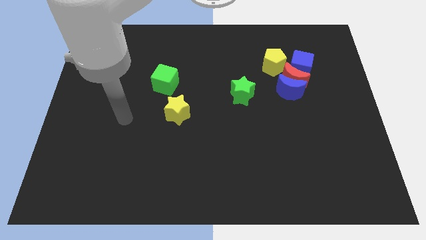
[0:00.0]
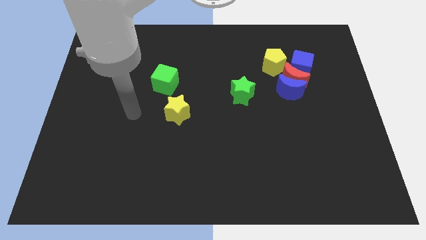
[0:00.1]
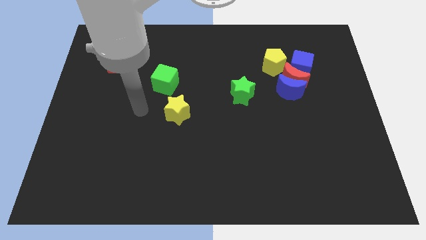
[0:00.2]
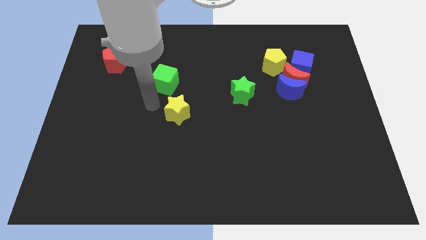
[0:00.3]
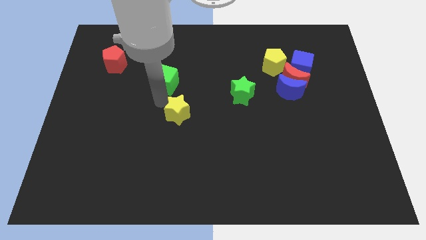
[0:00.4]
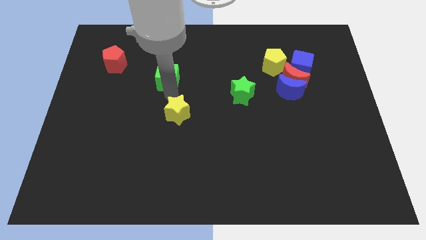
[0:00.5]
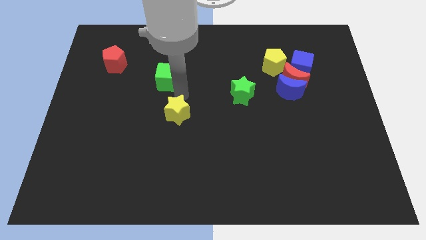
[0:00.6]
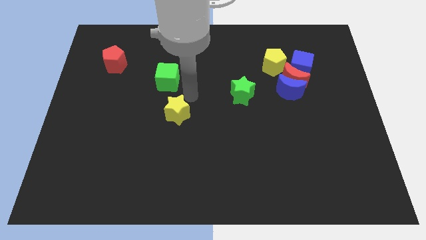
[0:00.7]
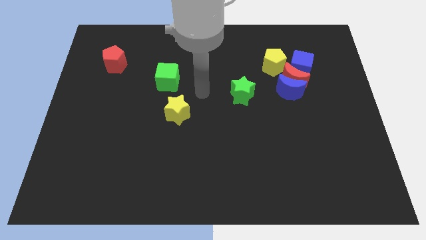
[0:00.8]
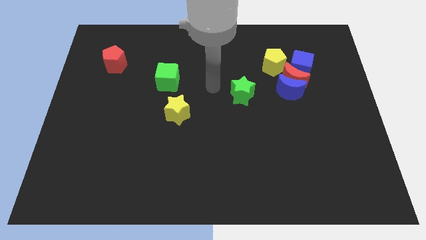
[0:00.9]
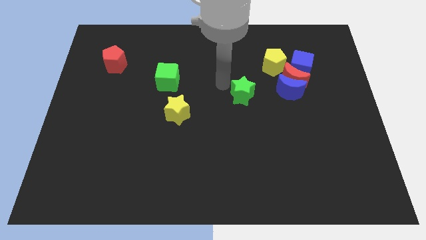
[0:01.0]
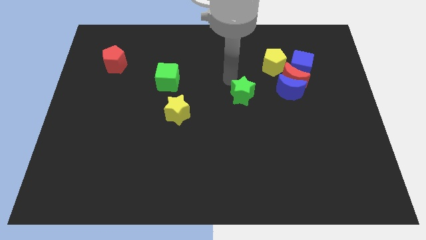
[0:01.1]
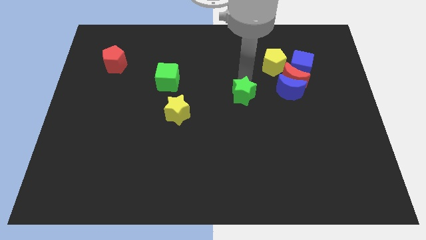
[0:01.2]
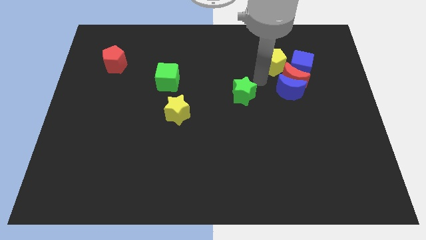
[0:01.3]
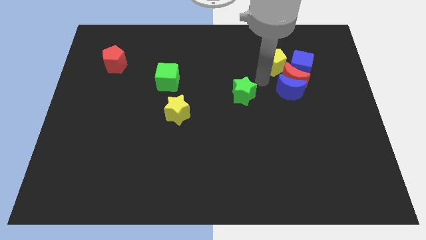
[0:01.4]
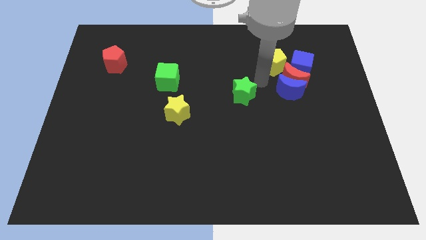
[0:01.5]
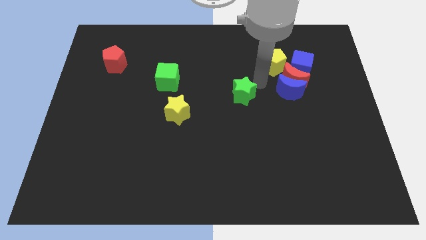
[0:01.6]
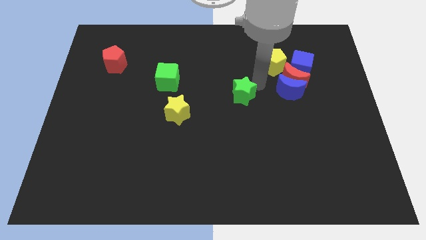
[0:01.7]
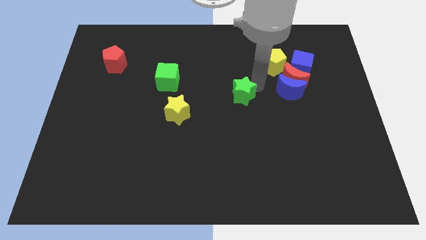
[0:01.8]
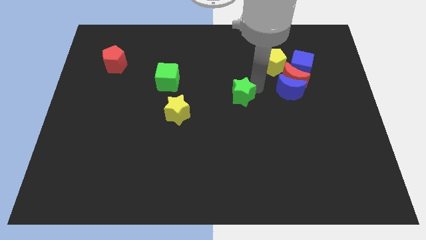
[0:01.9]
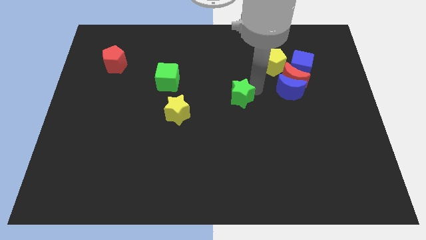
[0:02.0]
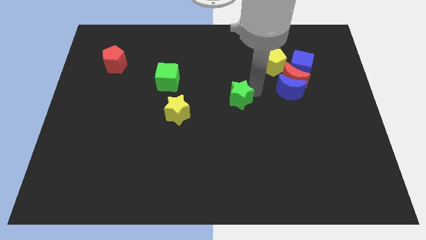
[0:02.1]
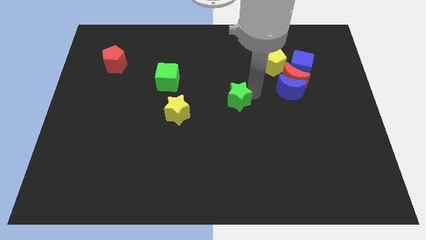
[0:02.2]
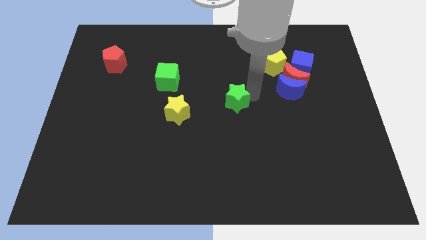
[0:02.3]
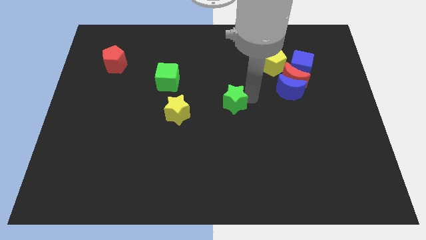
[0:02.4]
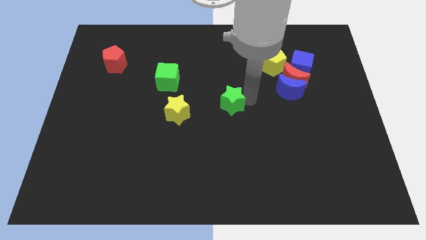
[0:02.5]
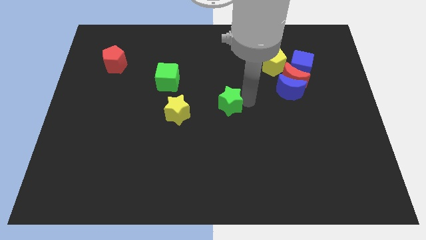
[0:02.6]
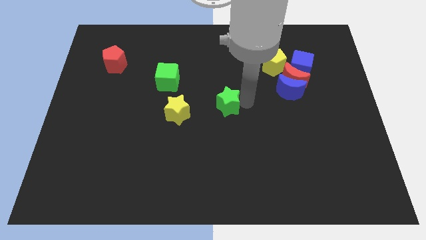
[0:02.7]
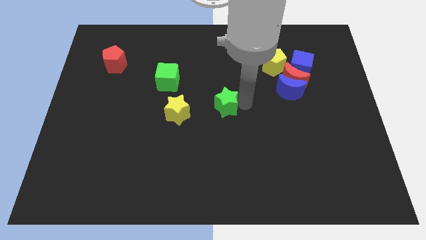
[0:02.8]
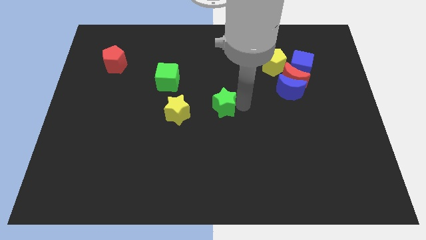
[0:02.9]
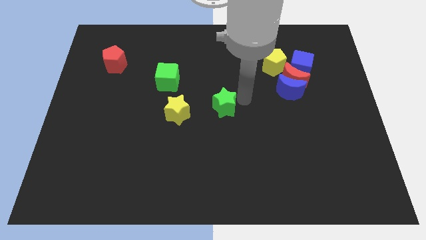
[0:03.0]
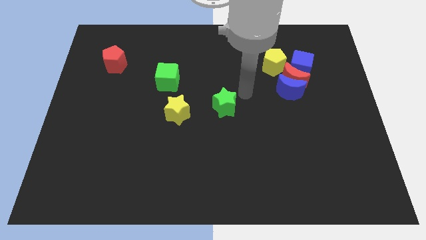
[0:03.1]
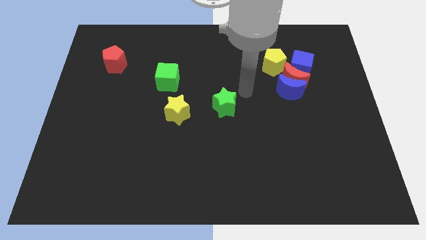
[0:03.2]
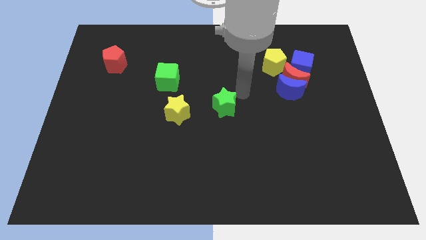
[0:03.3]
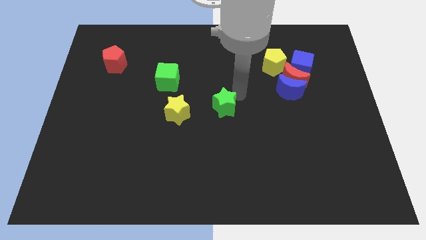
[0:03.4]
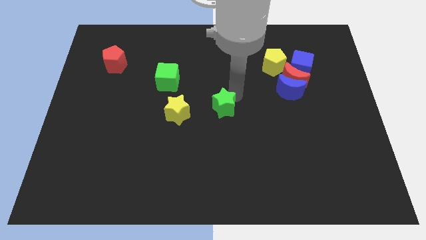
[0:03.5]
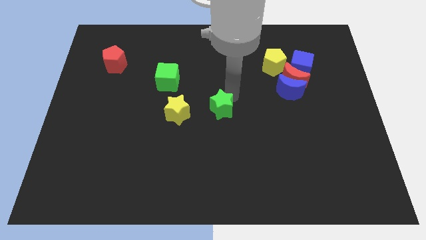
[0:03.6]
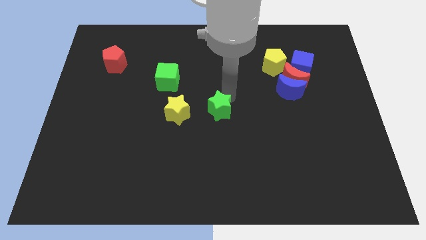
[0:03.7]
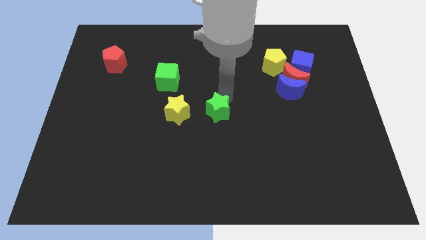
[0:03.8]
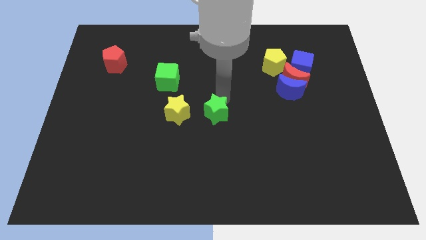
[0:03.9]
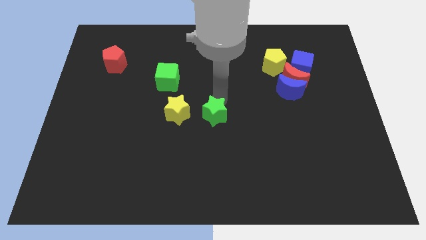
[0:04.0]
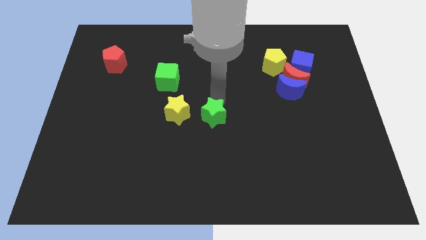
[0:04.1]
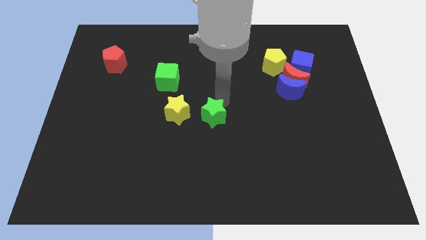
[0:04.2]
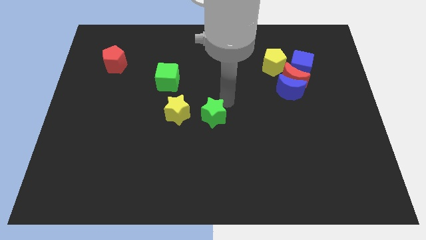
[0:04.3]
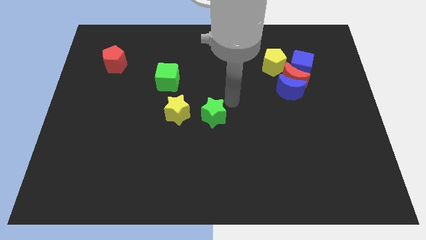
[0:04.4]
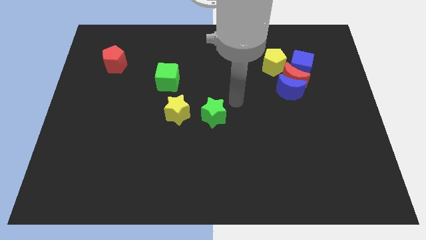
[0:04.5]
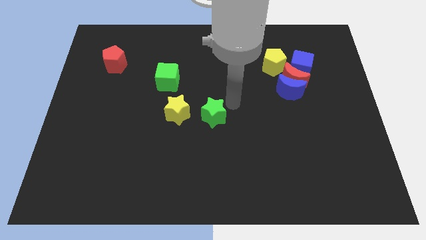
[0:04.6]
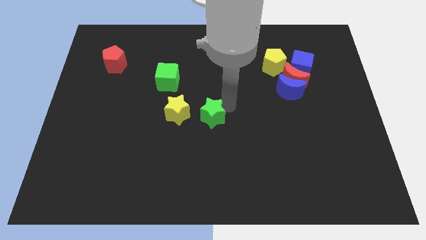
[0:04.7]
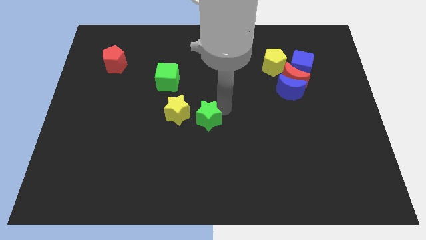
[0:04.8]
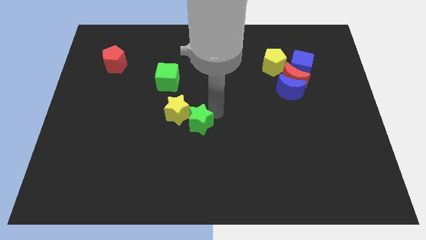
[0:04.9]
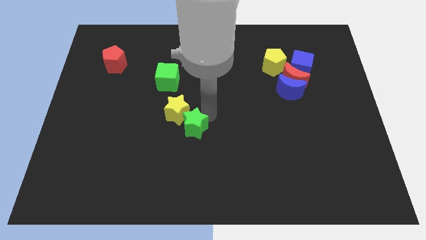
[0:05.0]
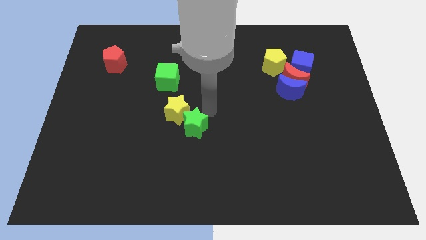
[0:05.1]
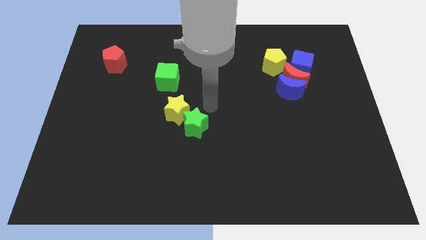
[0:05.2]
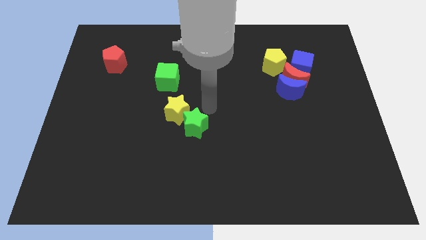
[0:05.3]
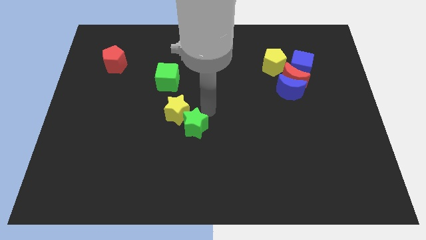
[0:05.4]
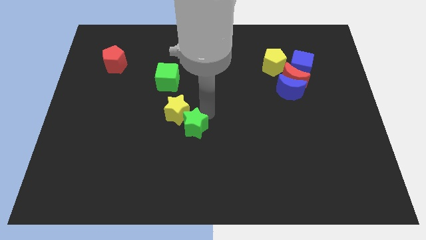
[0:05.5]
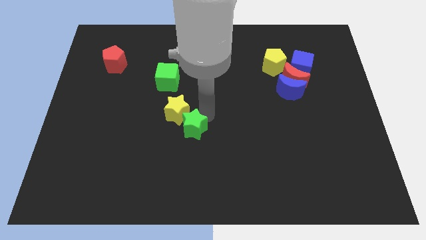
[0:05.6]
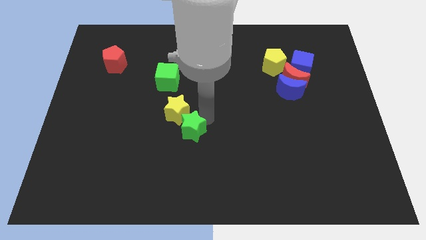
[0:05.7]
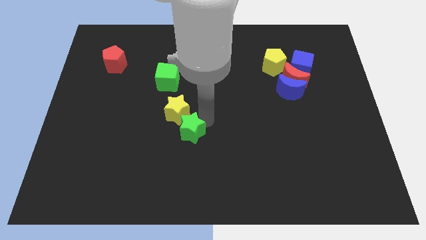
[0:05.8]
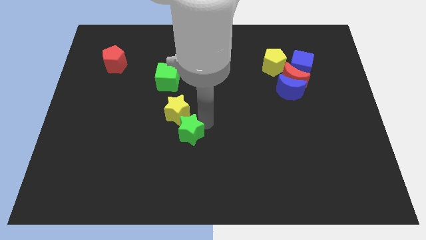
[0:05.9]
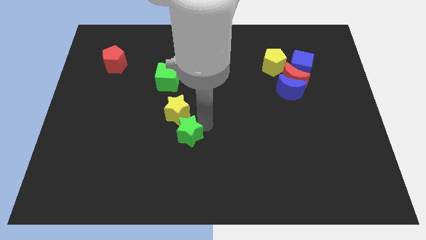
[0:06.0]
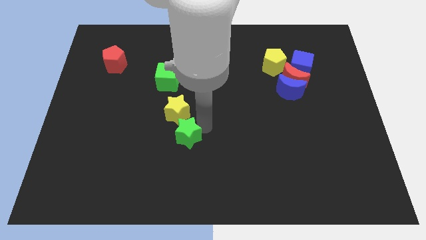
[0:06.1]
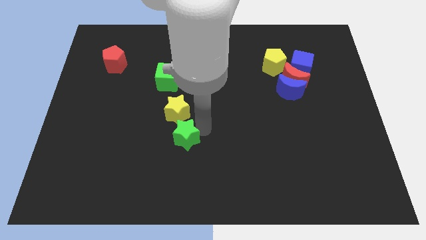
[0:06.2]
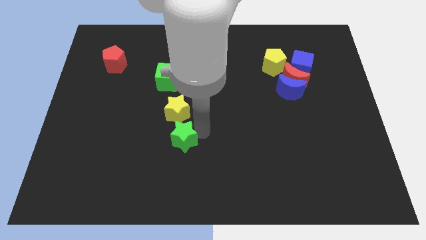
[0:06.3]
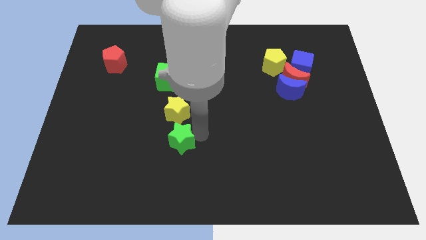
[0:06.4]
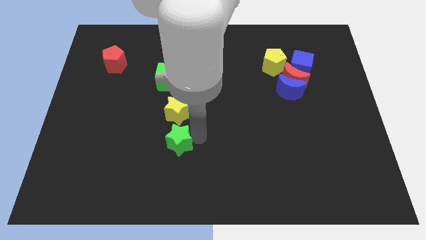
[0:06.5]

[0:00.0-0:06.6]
push the green star downwards and then left

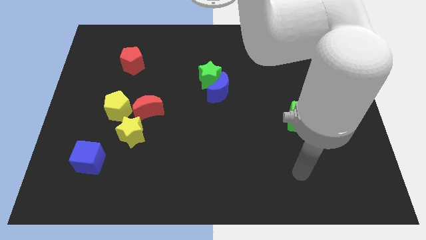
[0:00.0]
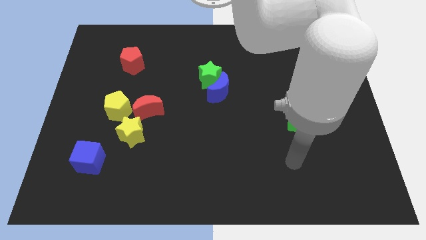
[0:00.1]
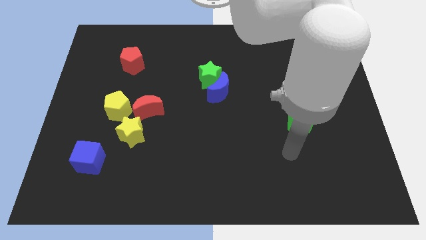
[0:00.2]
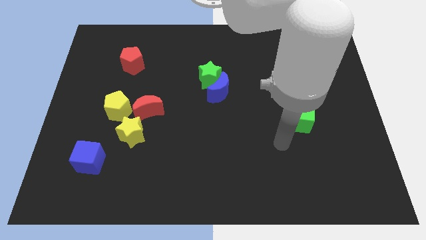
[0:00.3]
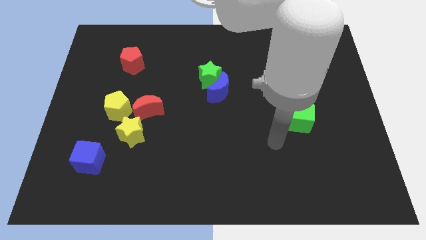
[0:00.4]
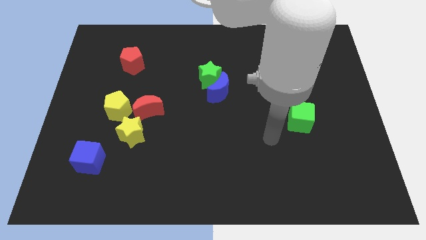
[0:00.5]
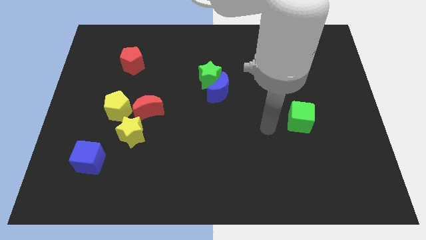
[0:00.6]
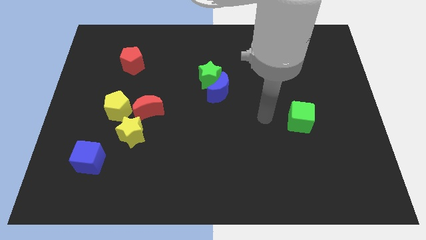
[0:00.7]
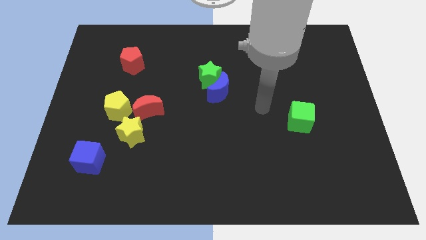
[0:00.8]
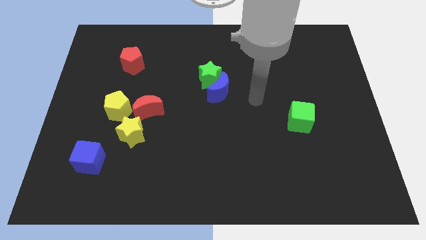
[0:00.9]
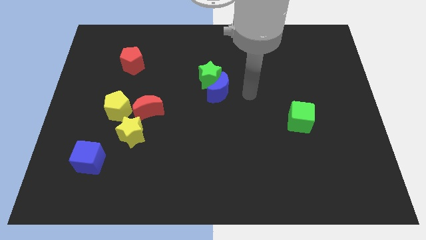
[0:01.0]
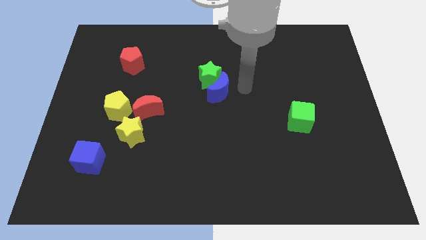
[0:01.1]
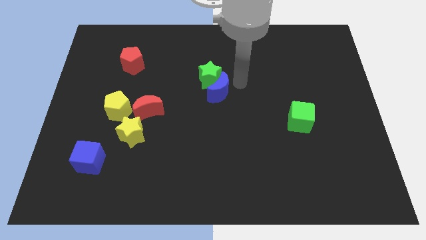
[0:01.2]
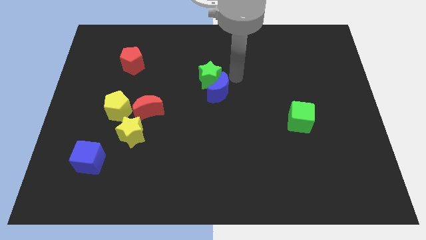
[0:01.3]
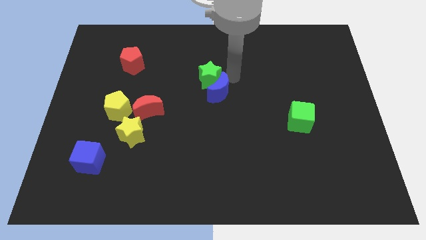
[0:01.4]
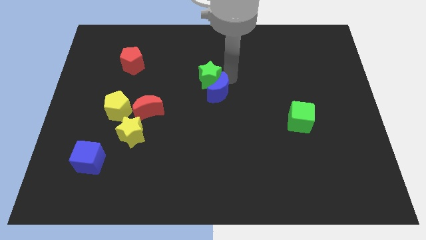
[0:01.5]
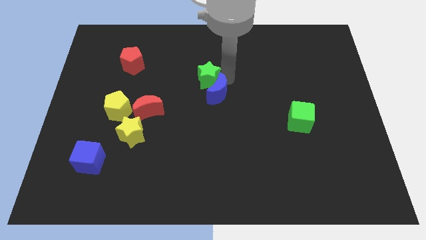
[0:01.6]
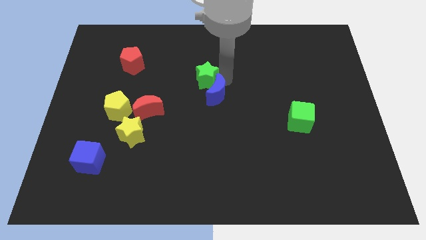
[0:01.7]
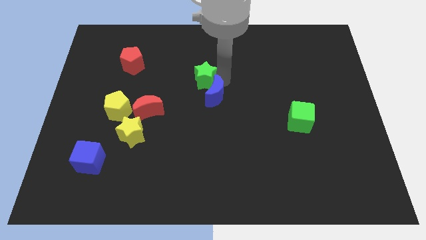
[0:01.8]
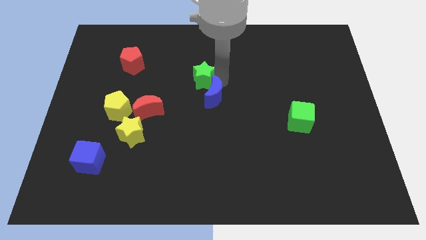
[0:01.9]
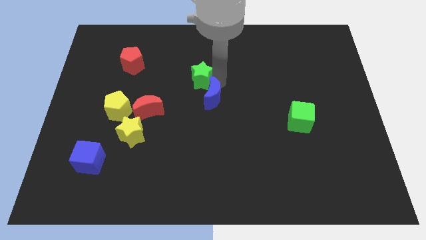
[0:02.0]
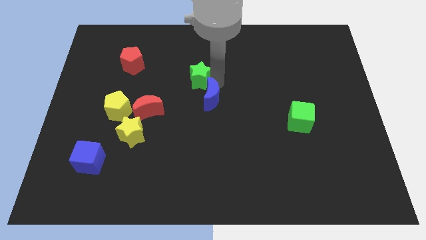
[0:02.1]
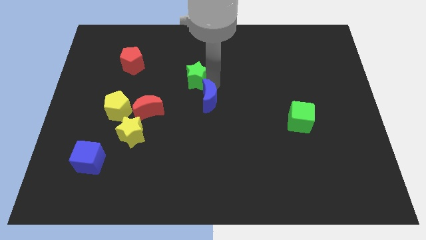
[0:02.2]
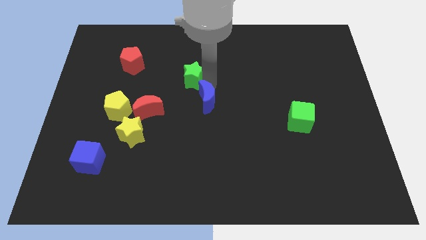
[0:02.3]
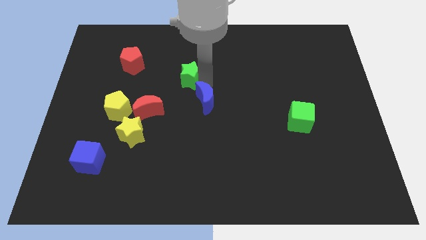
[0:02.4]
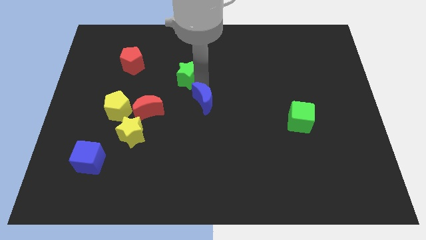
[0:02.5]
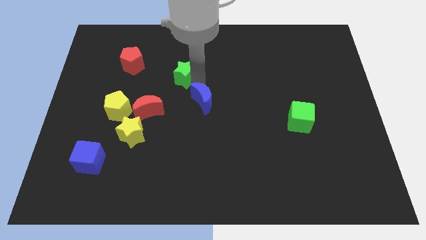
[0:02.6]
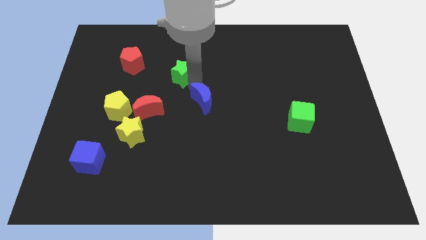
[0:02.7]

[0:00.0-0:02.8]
move the green star slightly left
